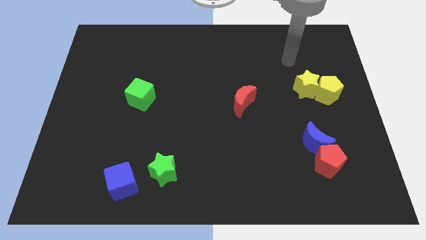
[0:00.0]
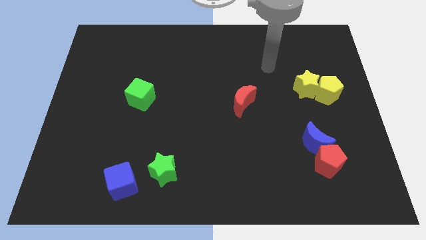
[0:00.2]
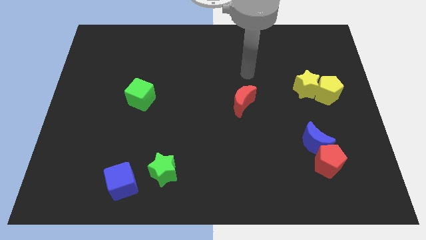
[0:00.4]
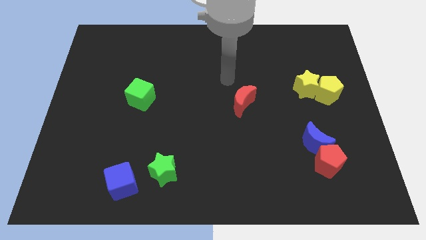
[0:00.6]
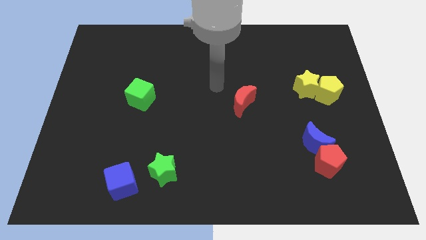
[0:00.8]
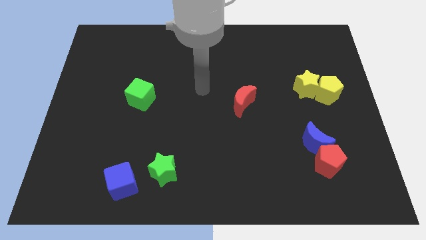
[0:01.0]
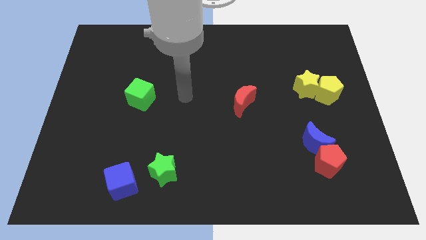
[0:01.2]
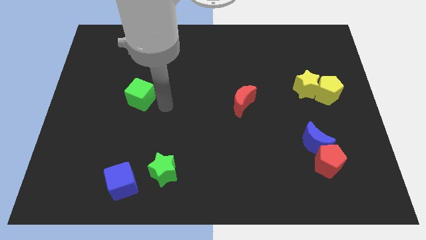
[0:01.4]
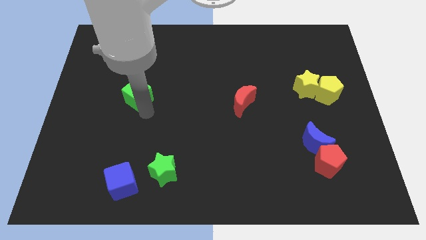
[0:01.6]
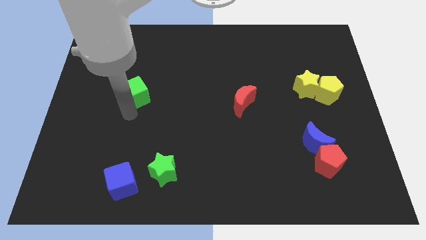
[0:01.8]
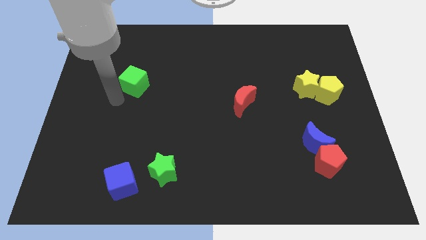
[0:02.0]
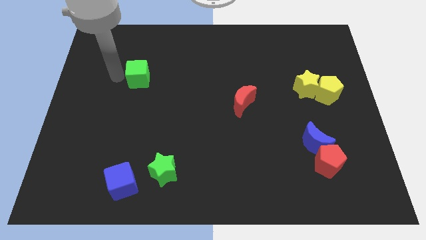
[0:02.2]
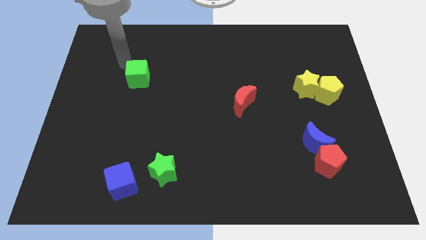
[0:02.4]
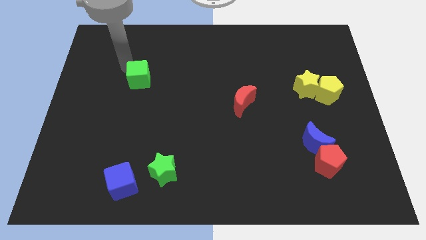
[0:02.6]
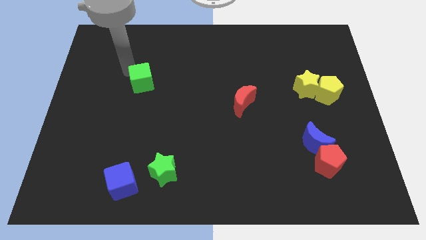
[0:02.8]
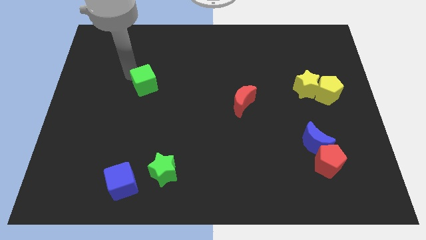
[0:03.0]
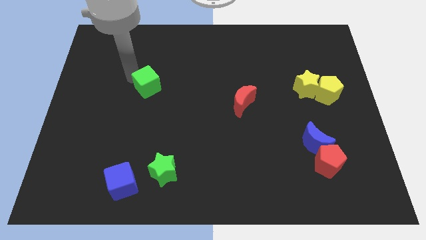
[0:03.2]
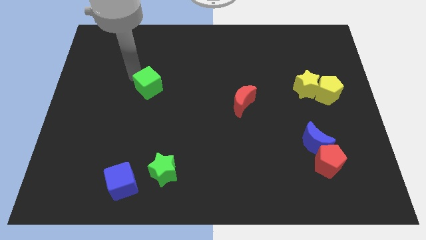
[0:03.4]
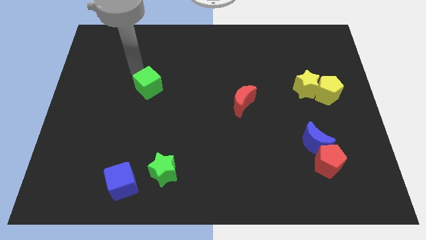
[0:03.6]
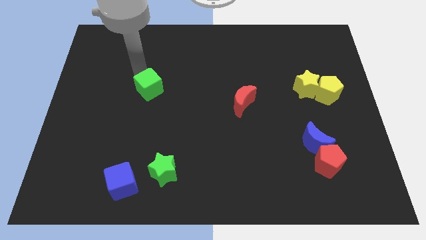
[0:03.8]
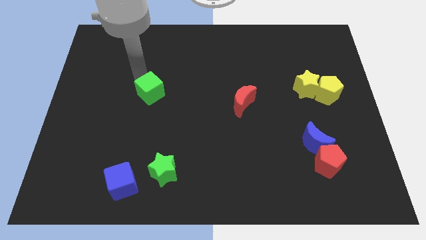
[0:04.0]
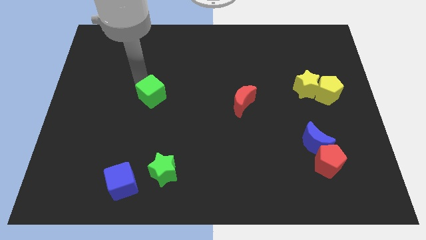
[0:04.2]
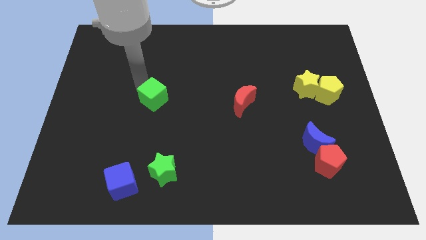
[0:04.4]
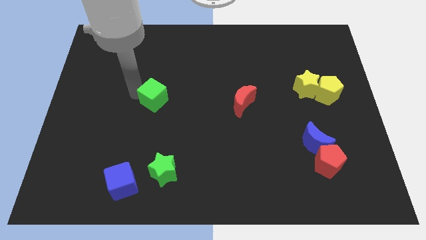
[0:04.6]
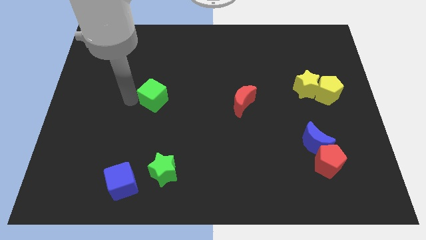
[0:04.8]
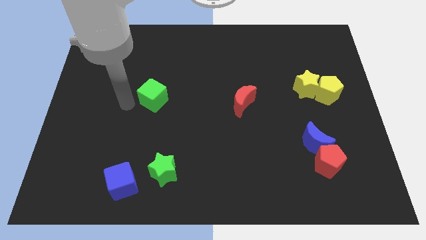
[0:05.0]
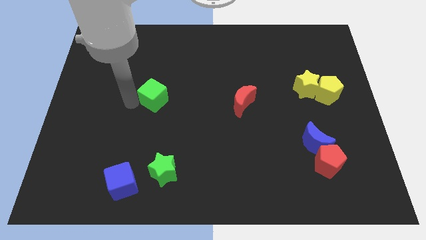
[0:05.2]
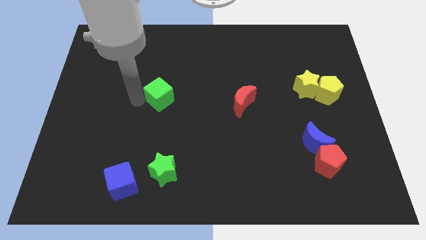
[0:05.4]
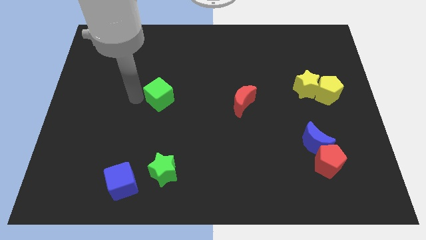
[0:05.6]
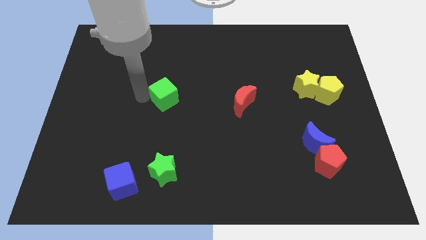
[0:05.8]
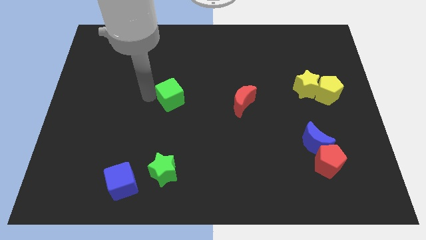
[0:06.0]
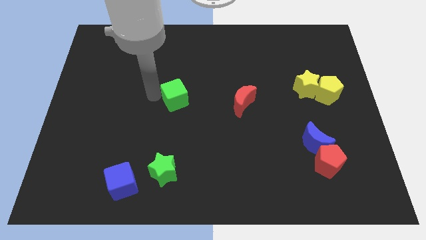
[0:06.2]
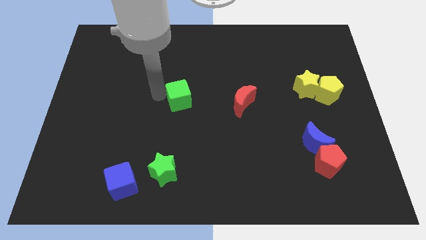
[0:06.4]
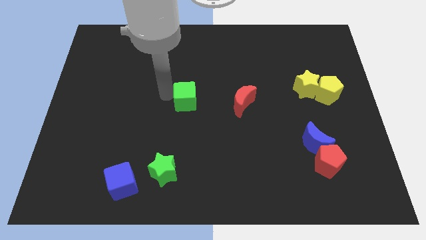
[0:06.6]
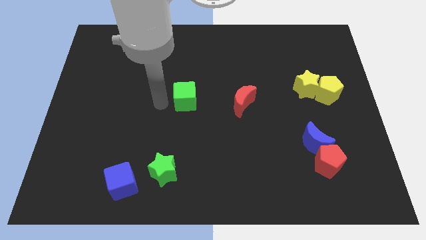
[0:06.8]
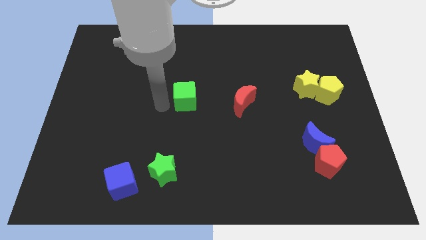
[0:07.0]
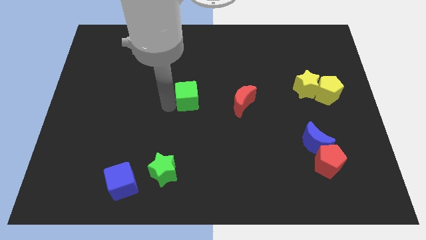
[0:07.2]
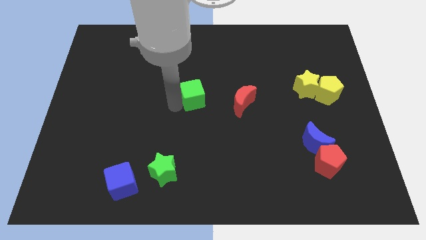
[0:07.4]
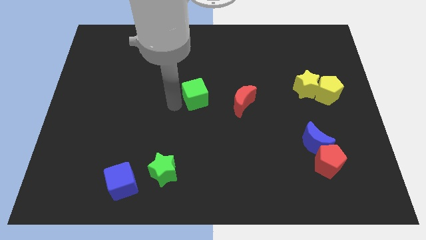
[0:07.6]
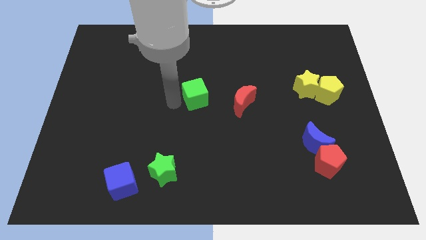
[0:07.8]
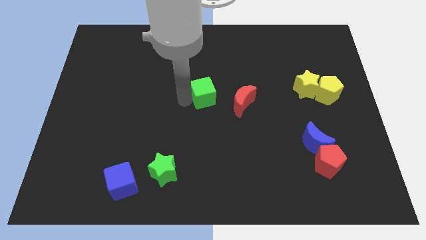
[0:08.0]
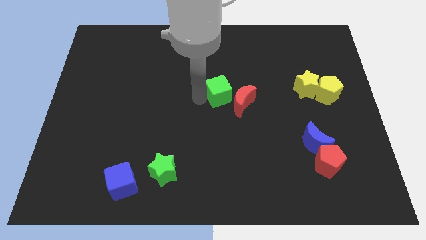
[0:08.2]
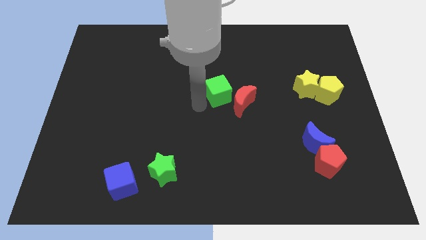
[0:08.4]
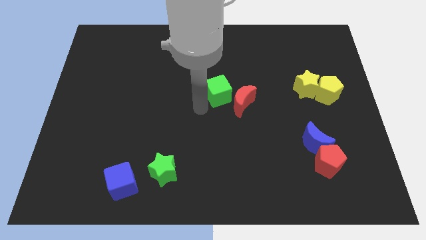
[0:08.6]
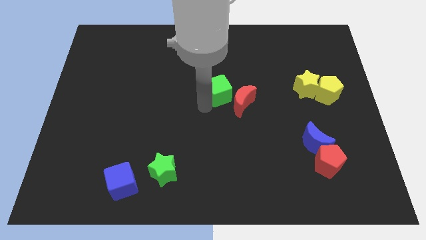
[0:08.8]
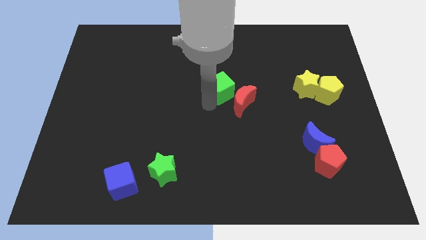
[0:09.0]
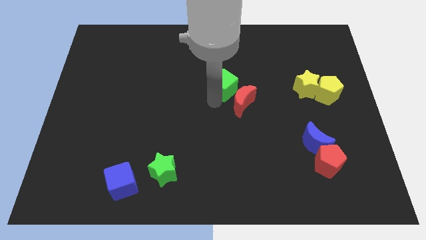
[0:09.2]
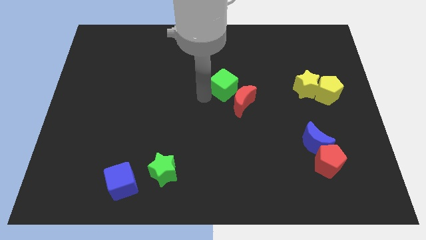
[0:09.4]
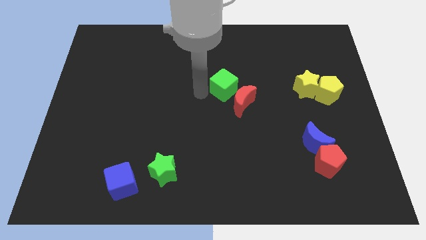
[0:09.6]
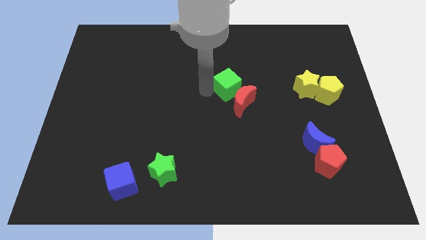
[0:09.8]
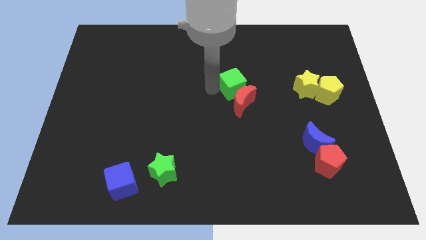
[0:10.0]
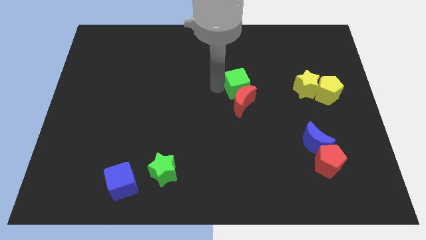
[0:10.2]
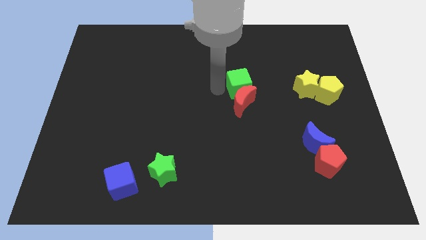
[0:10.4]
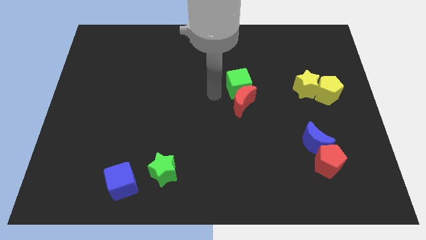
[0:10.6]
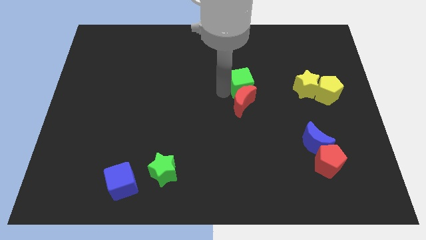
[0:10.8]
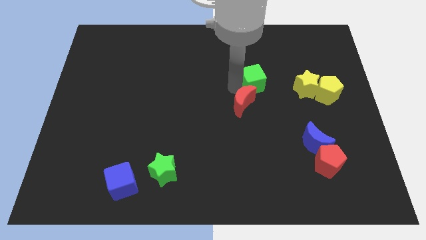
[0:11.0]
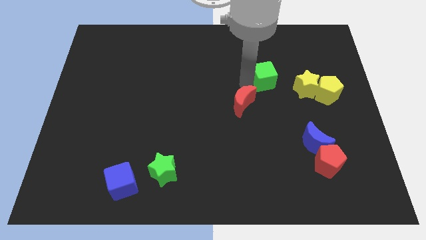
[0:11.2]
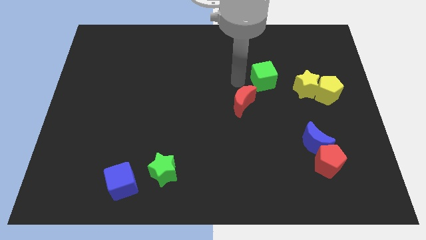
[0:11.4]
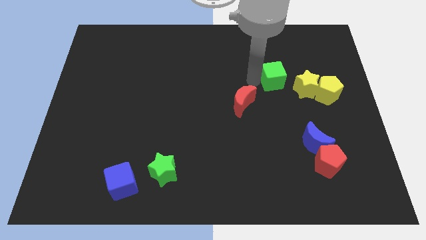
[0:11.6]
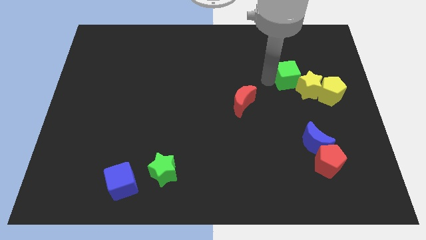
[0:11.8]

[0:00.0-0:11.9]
move the green cube diagonally up and to the left of the yellow pentagon

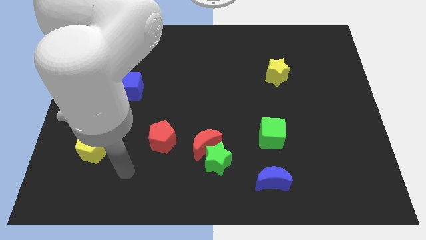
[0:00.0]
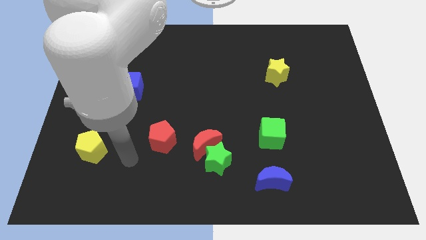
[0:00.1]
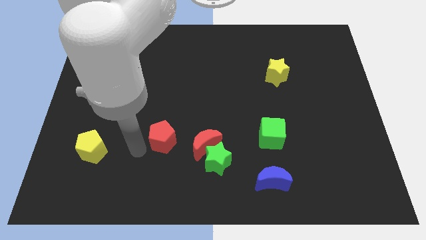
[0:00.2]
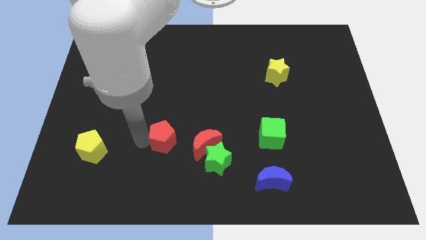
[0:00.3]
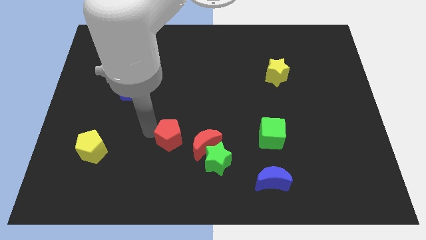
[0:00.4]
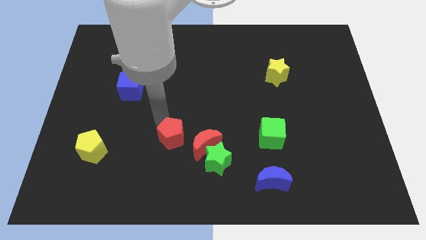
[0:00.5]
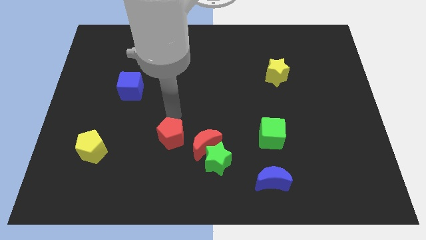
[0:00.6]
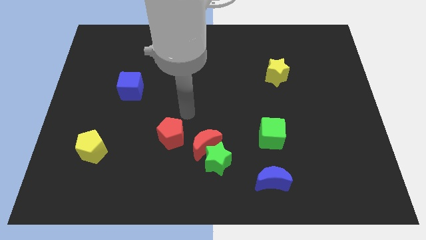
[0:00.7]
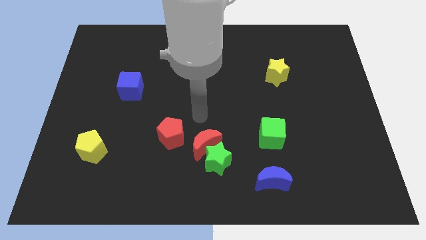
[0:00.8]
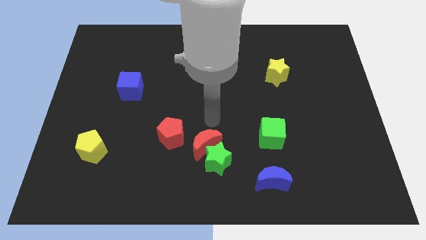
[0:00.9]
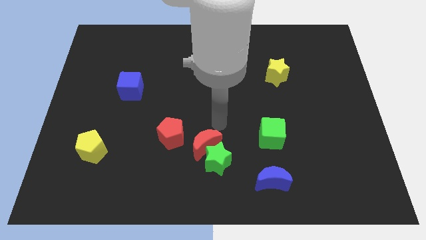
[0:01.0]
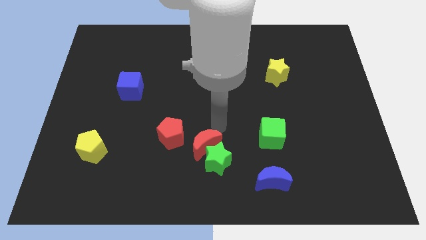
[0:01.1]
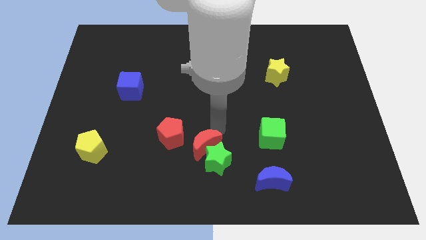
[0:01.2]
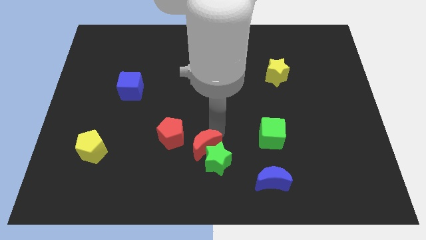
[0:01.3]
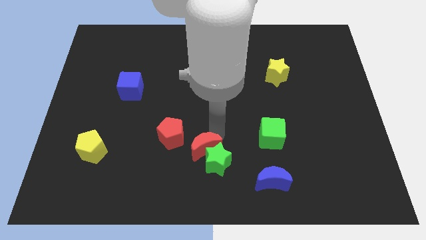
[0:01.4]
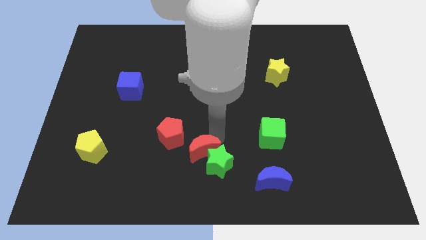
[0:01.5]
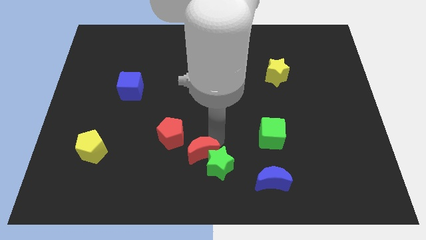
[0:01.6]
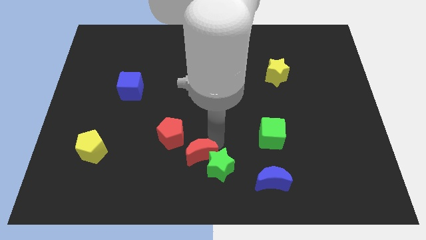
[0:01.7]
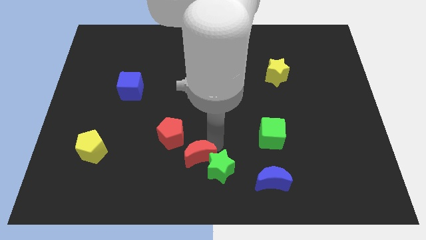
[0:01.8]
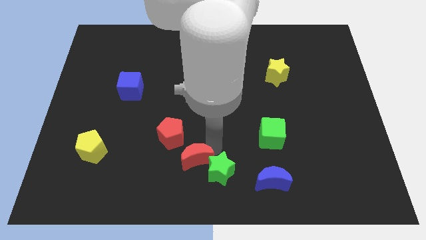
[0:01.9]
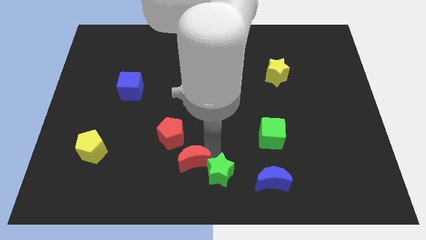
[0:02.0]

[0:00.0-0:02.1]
push the red moon to the bottom side of the red pentagon
